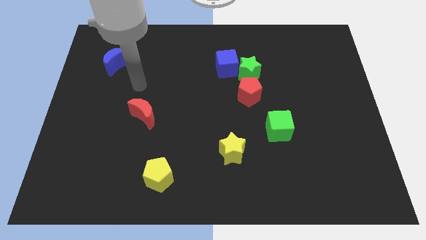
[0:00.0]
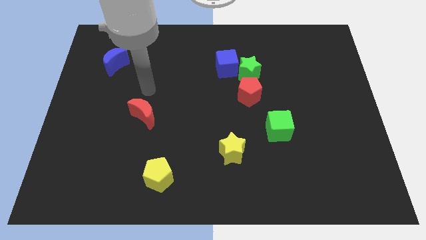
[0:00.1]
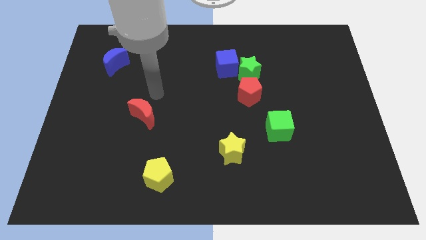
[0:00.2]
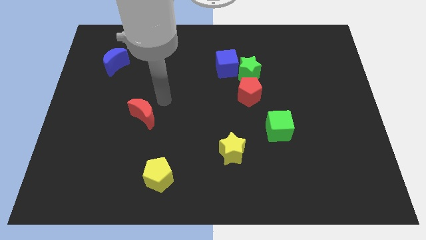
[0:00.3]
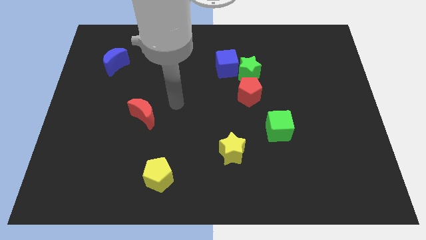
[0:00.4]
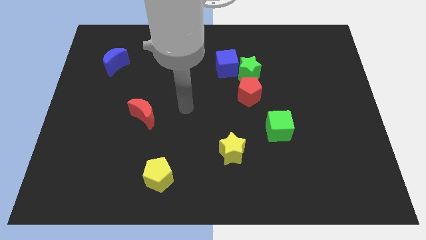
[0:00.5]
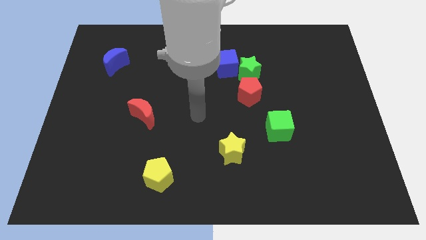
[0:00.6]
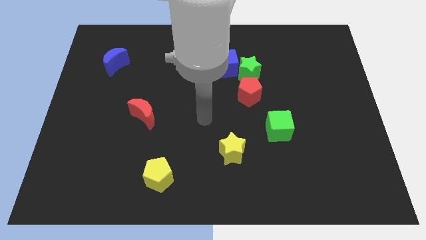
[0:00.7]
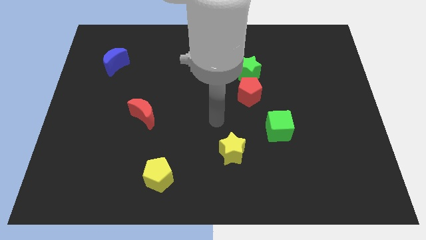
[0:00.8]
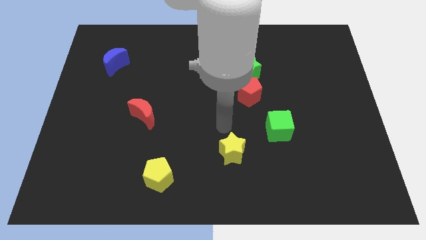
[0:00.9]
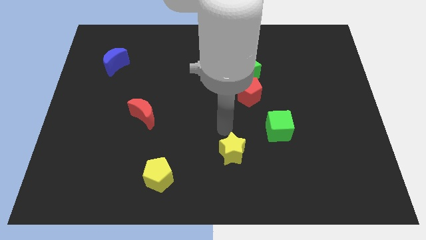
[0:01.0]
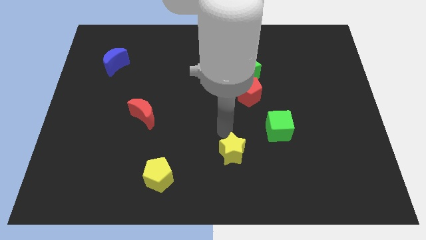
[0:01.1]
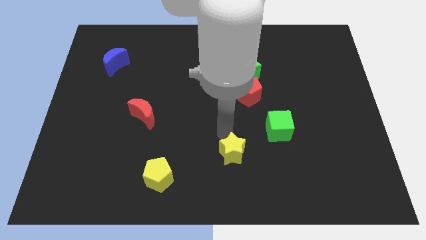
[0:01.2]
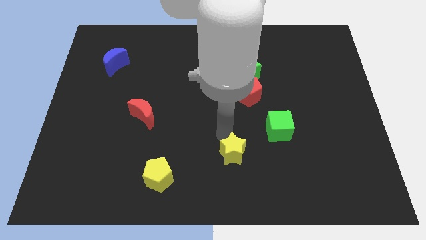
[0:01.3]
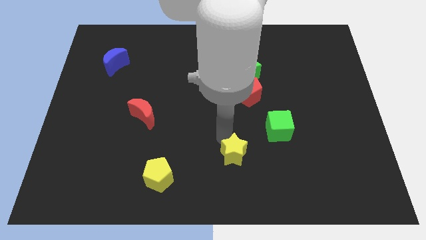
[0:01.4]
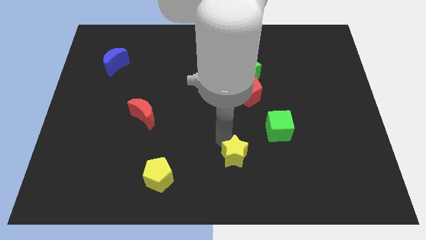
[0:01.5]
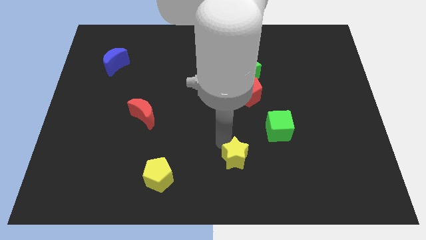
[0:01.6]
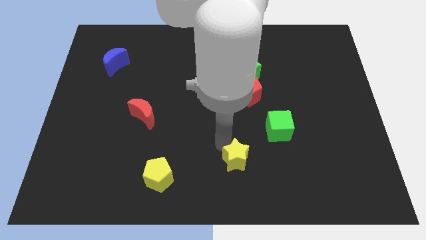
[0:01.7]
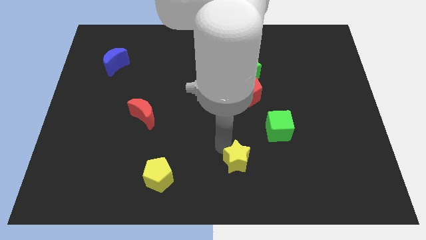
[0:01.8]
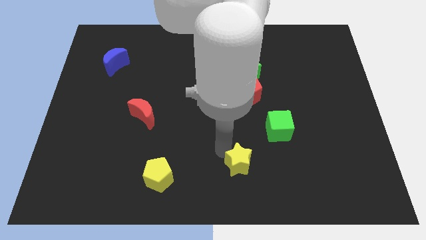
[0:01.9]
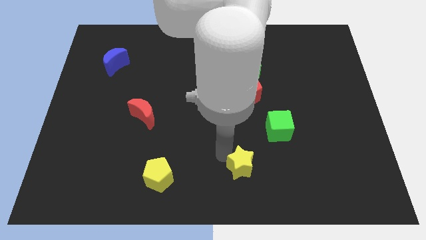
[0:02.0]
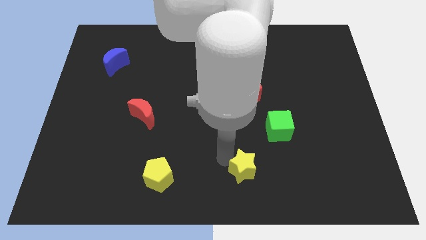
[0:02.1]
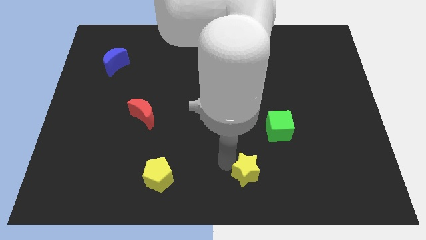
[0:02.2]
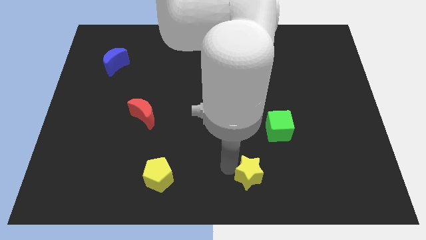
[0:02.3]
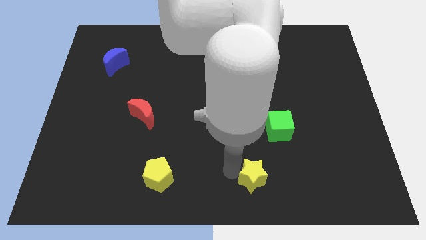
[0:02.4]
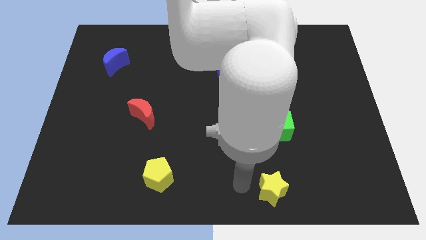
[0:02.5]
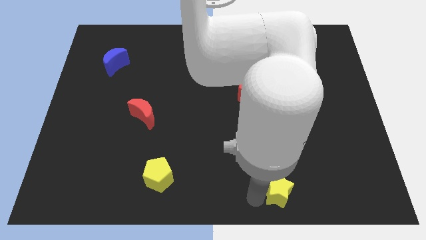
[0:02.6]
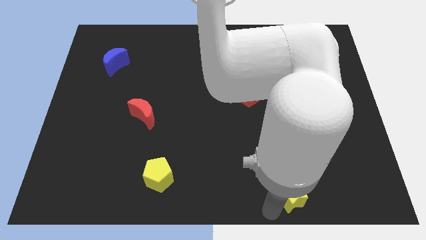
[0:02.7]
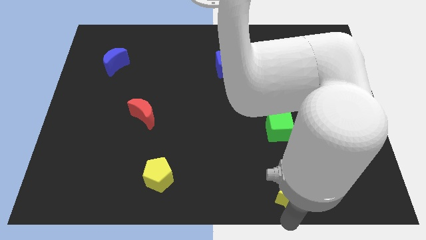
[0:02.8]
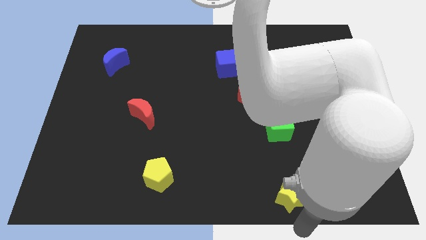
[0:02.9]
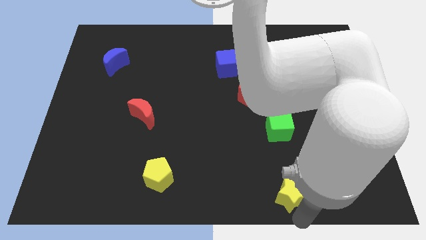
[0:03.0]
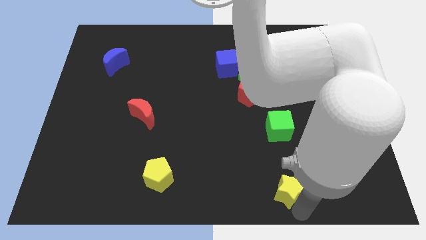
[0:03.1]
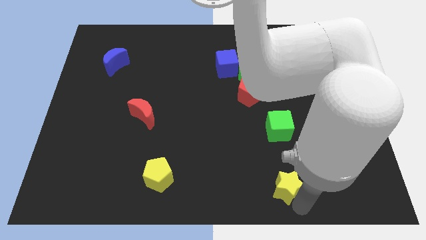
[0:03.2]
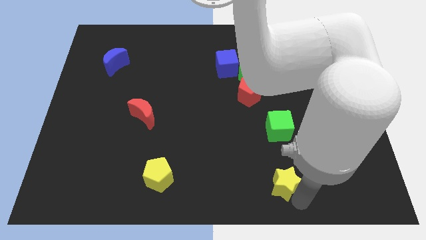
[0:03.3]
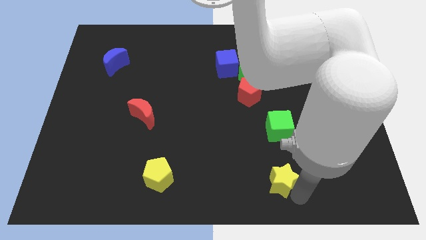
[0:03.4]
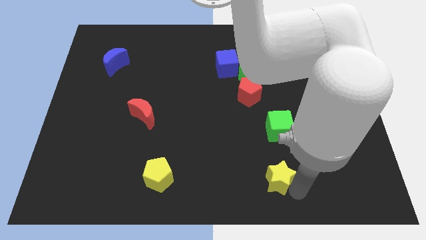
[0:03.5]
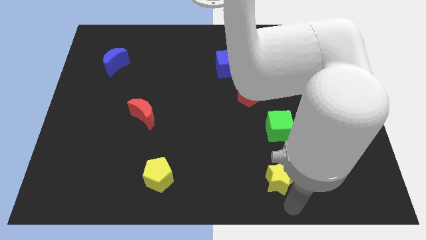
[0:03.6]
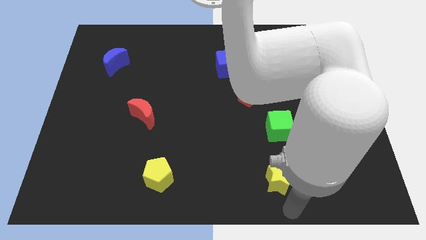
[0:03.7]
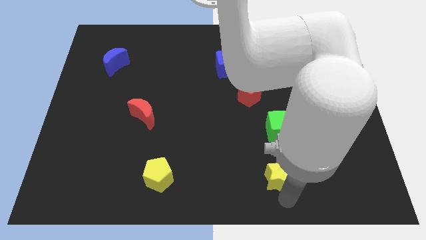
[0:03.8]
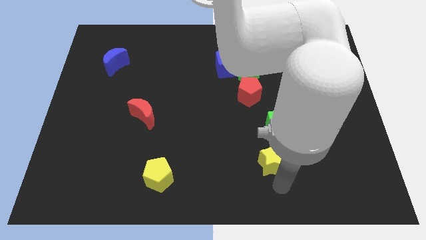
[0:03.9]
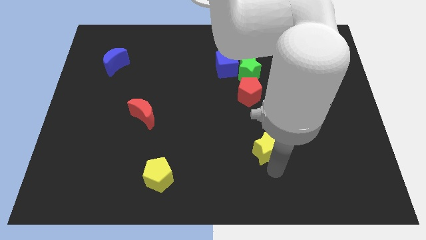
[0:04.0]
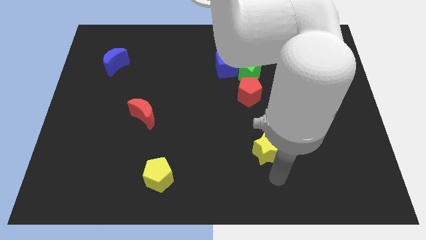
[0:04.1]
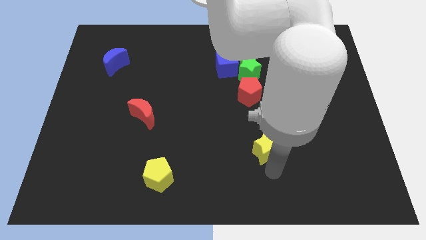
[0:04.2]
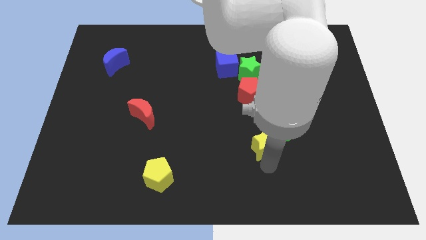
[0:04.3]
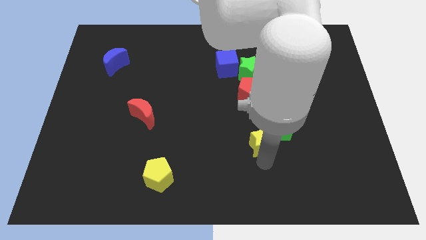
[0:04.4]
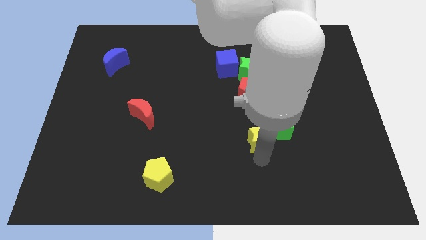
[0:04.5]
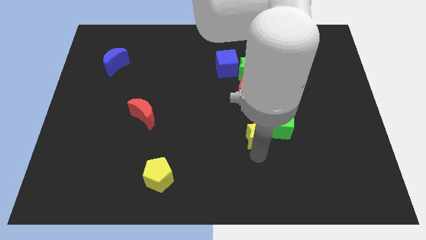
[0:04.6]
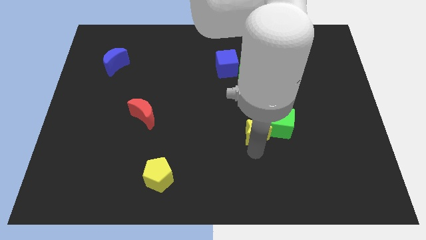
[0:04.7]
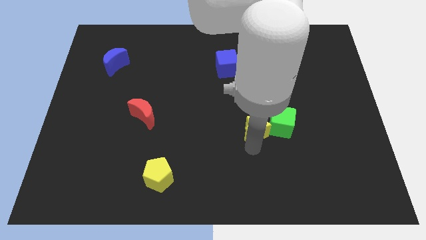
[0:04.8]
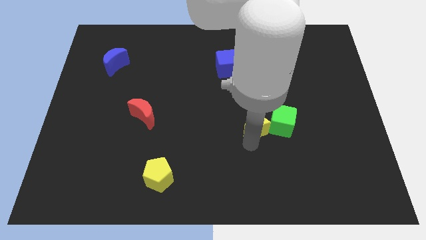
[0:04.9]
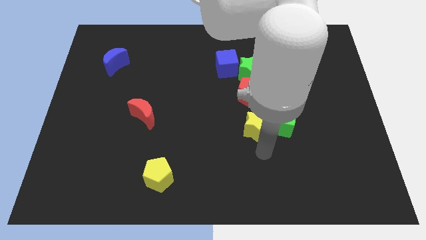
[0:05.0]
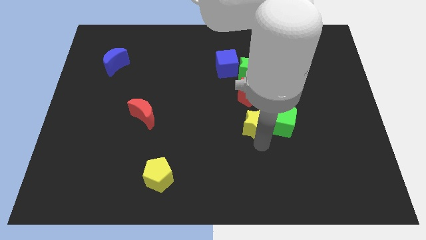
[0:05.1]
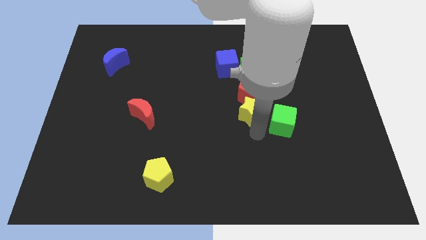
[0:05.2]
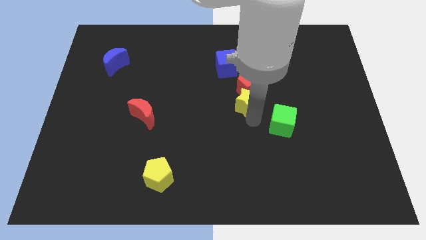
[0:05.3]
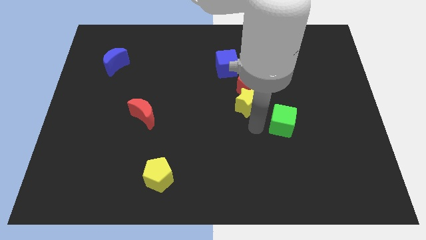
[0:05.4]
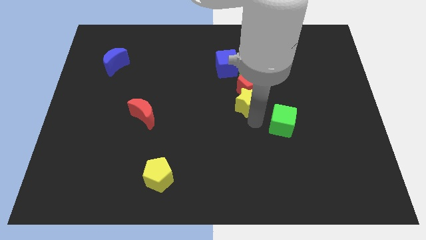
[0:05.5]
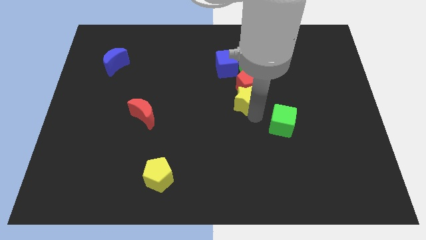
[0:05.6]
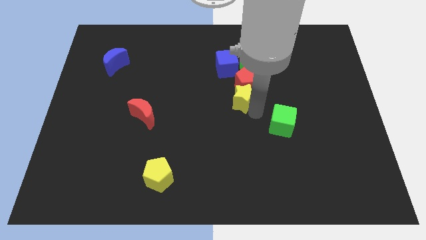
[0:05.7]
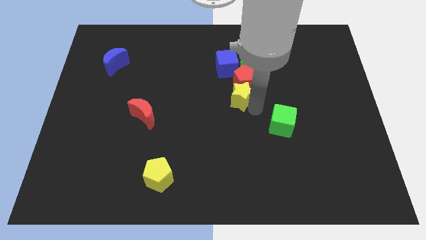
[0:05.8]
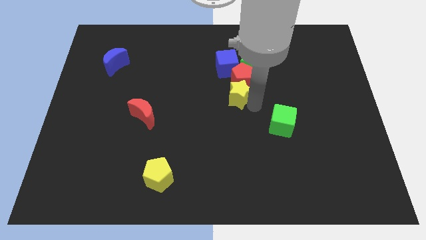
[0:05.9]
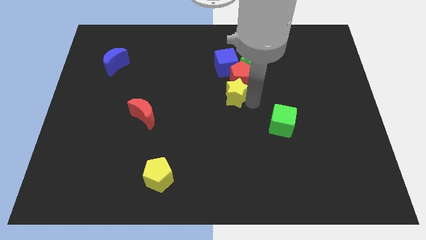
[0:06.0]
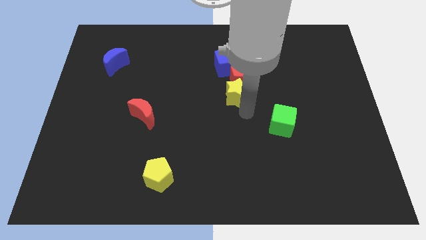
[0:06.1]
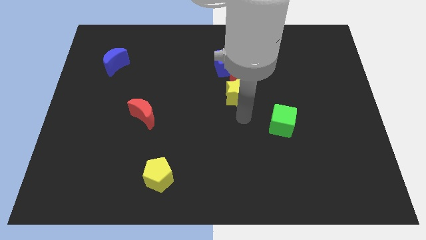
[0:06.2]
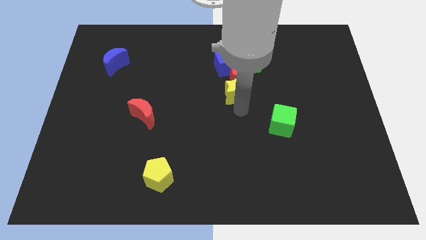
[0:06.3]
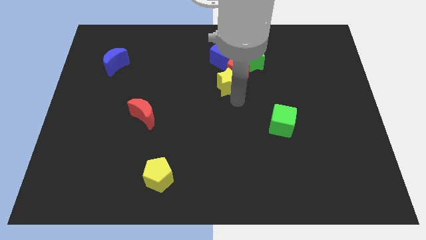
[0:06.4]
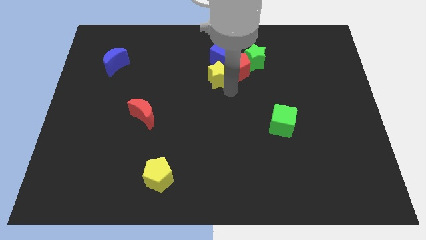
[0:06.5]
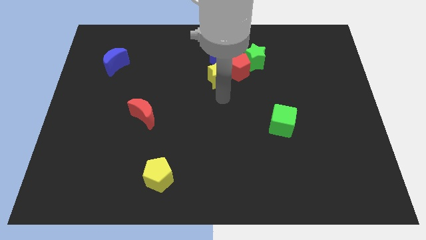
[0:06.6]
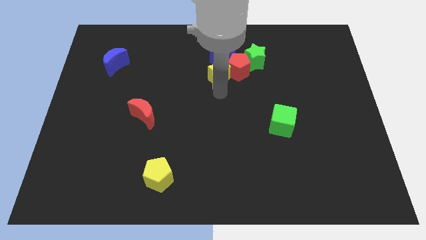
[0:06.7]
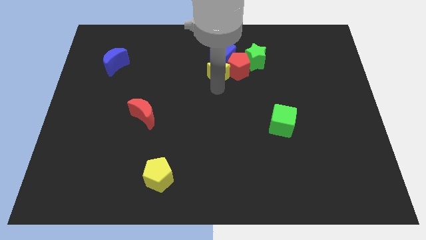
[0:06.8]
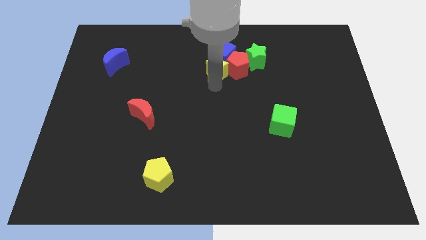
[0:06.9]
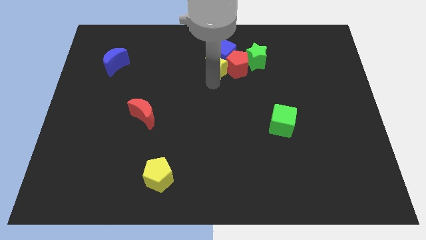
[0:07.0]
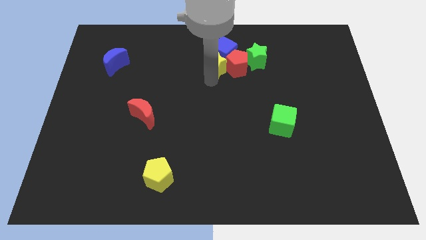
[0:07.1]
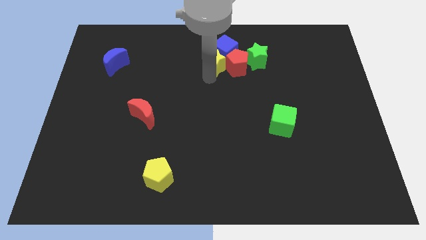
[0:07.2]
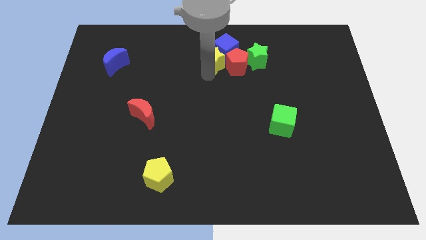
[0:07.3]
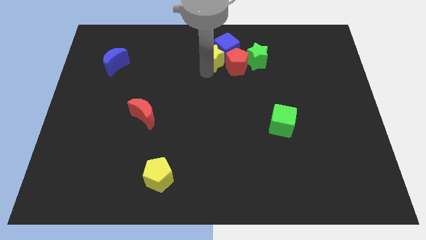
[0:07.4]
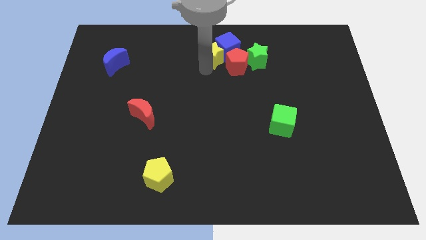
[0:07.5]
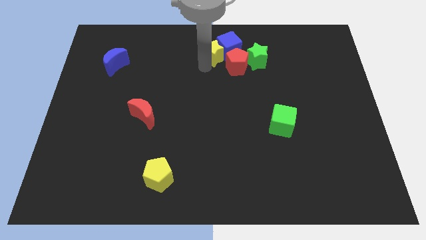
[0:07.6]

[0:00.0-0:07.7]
slide the yellow star to the top
